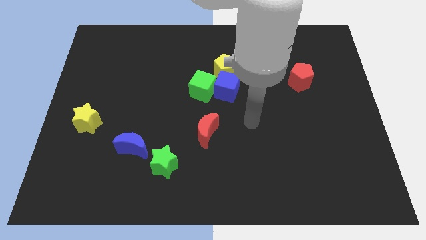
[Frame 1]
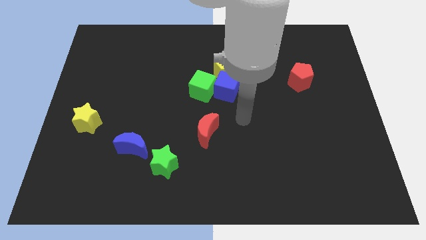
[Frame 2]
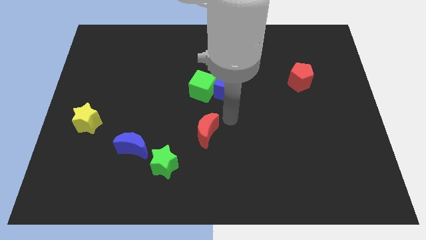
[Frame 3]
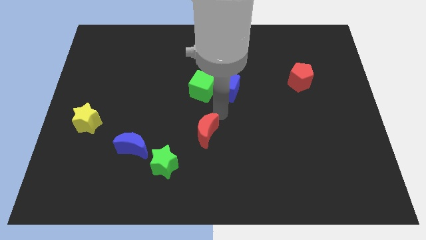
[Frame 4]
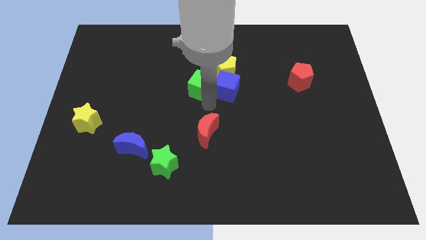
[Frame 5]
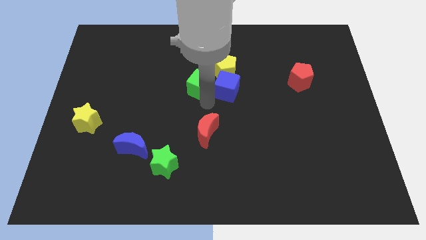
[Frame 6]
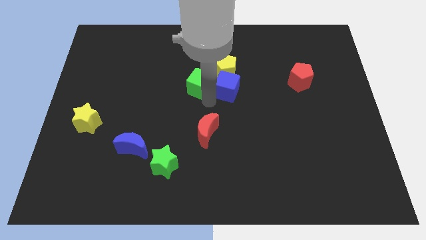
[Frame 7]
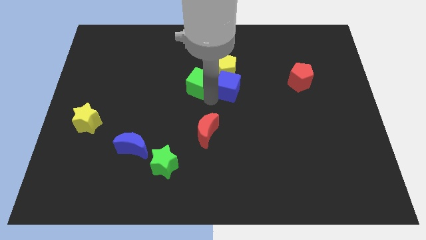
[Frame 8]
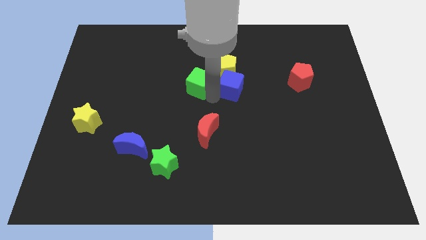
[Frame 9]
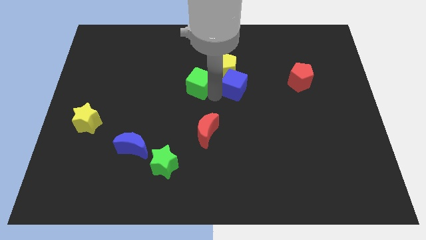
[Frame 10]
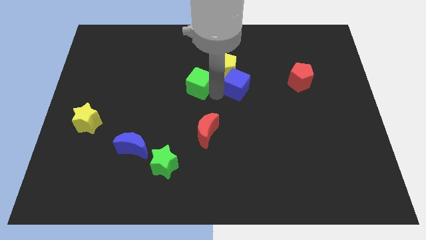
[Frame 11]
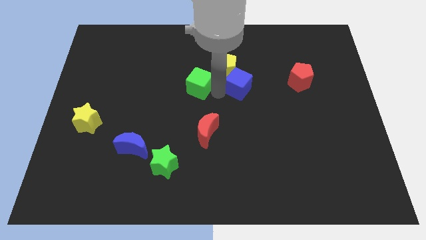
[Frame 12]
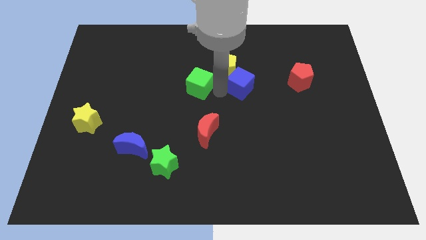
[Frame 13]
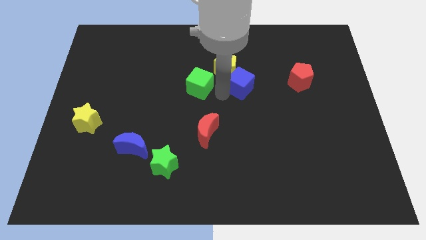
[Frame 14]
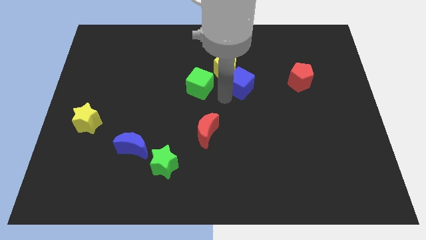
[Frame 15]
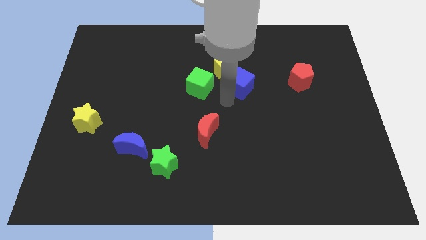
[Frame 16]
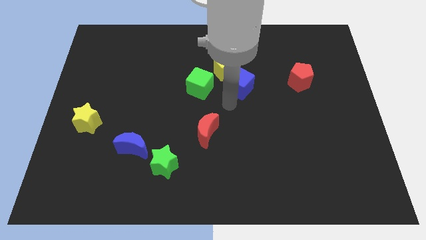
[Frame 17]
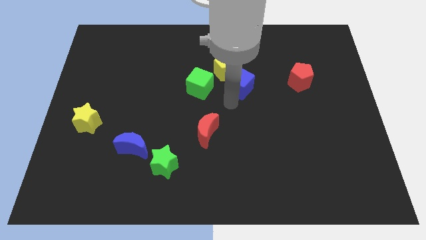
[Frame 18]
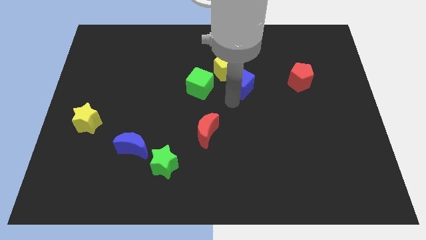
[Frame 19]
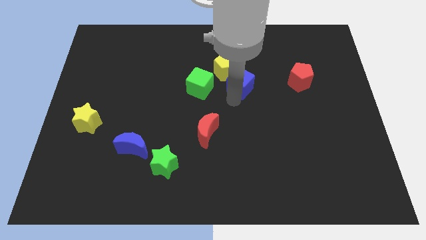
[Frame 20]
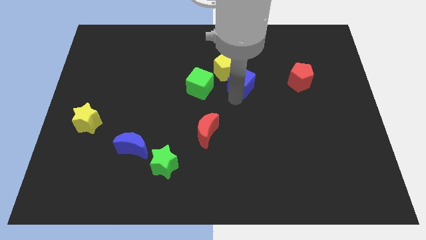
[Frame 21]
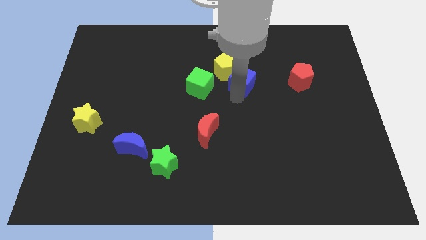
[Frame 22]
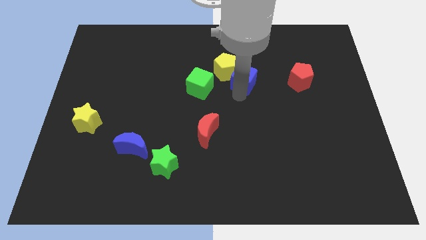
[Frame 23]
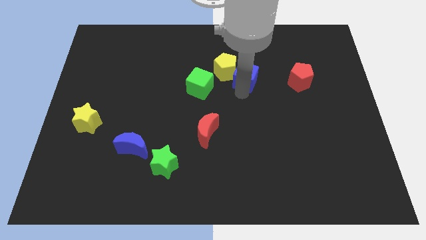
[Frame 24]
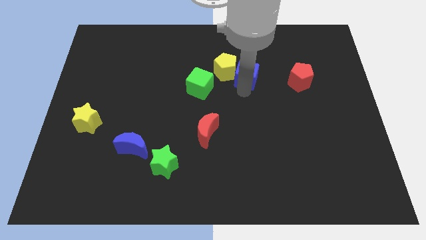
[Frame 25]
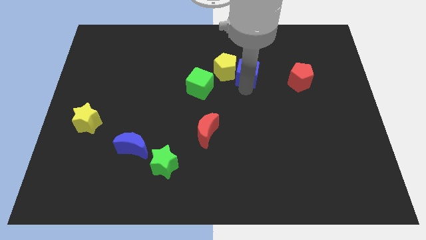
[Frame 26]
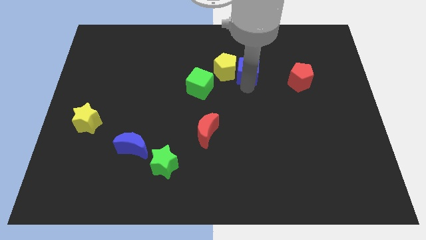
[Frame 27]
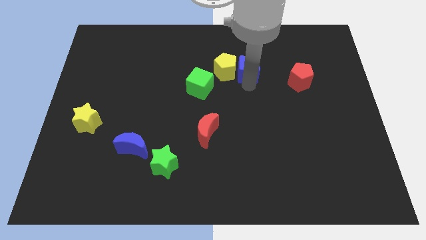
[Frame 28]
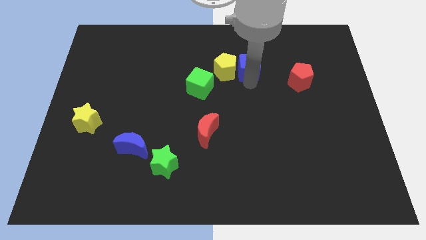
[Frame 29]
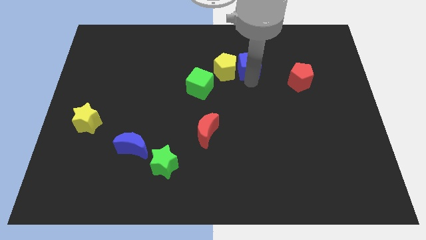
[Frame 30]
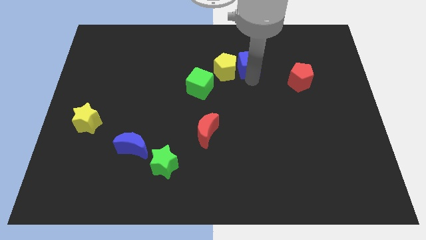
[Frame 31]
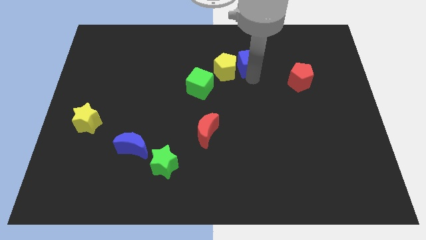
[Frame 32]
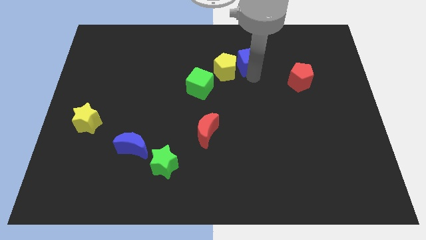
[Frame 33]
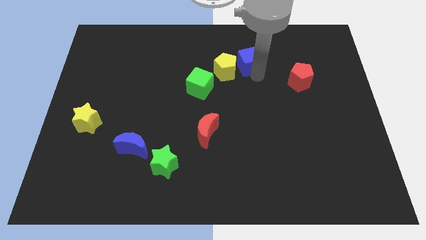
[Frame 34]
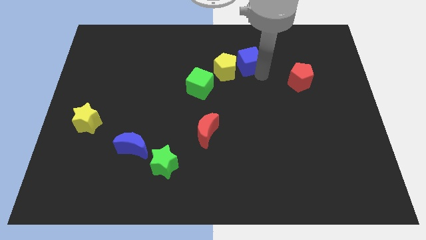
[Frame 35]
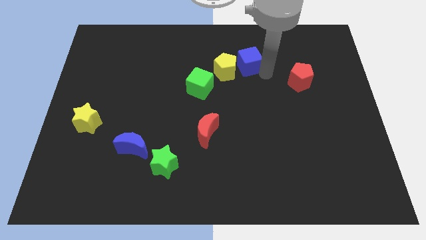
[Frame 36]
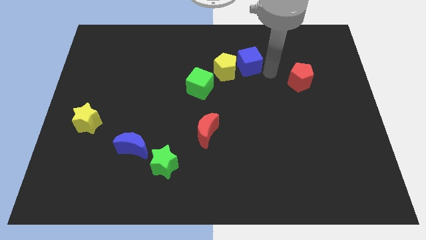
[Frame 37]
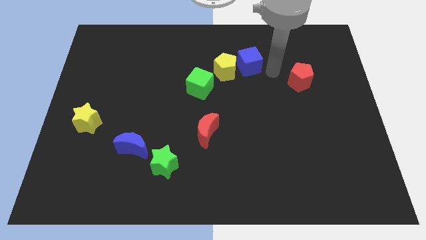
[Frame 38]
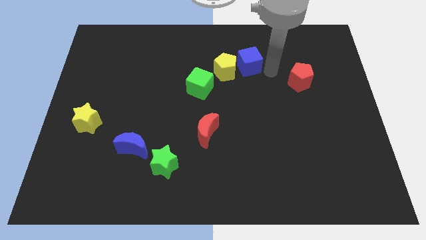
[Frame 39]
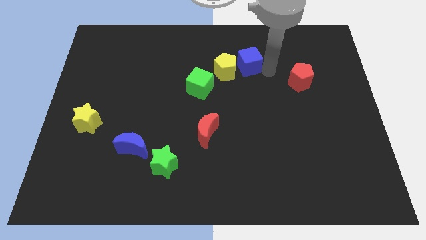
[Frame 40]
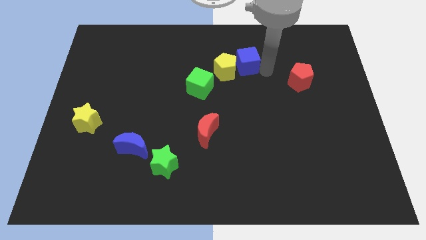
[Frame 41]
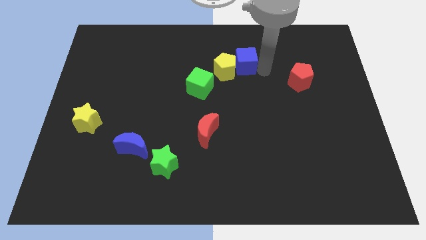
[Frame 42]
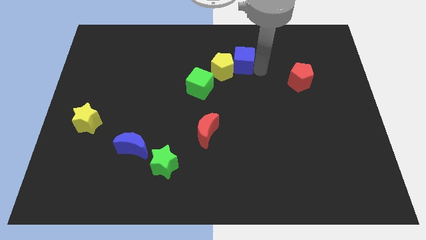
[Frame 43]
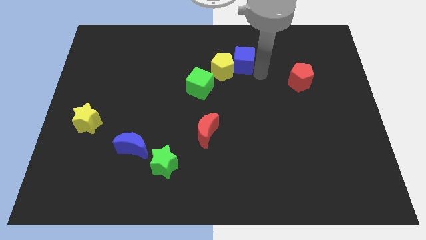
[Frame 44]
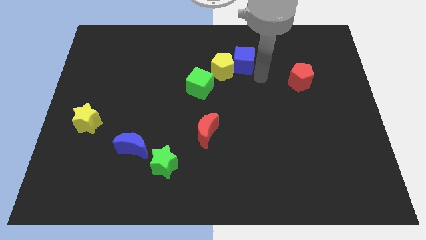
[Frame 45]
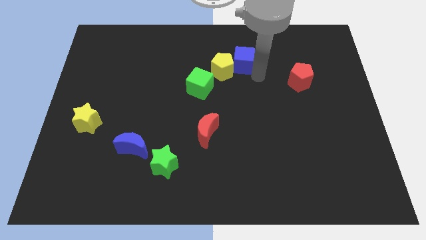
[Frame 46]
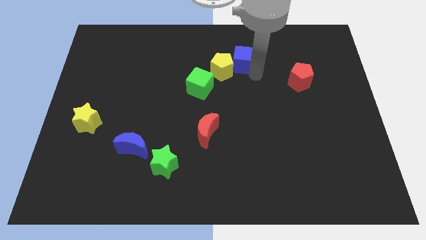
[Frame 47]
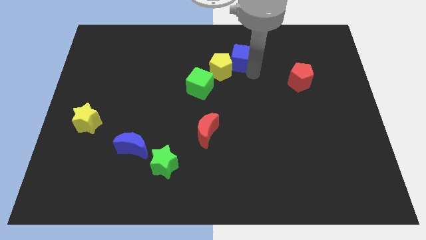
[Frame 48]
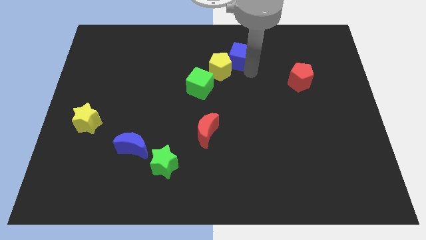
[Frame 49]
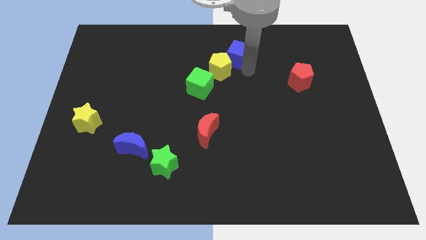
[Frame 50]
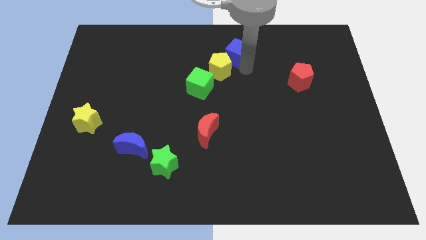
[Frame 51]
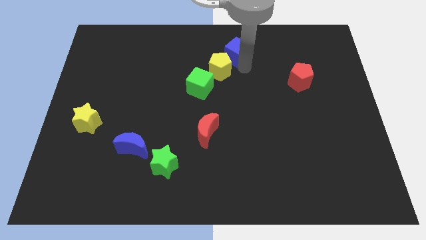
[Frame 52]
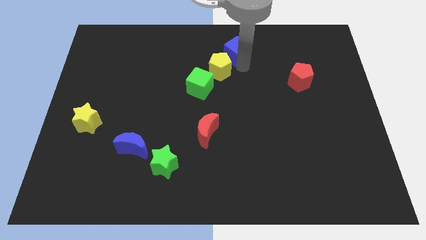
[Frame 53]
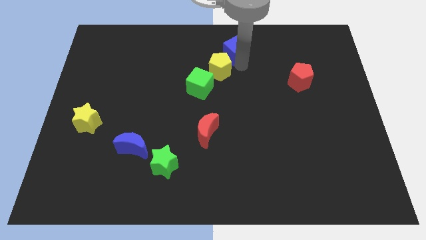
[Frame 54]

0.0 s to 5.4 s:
put the blue cube to the top

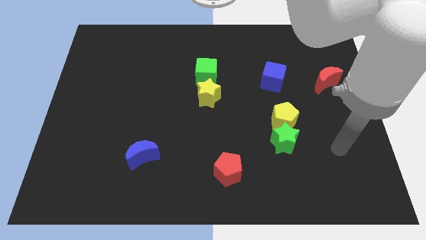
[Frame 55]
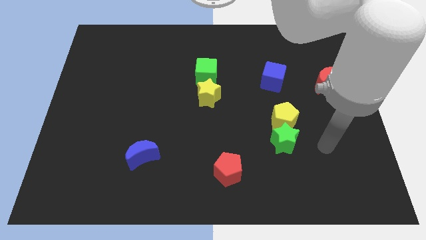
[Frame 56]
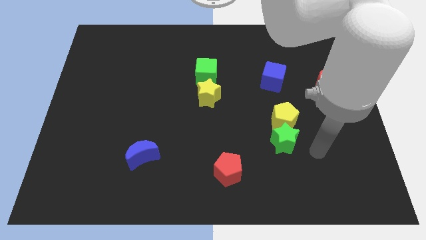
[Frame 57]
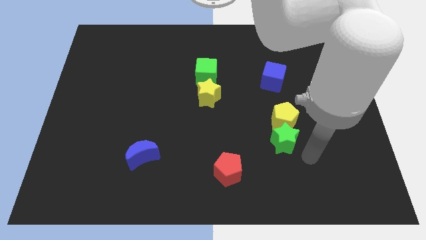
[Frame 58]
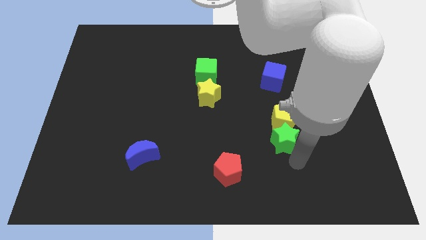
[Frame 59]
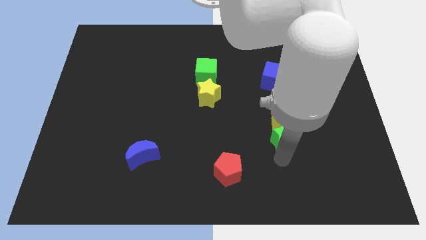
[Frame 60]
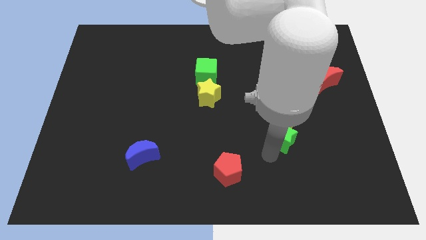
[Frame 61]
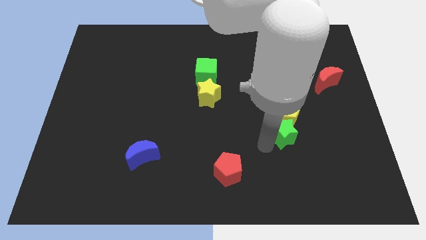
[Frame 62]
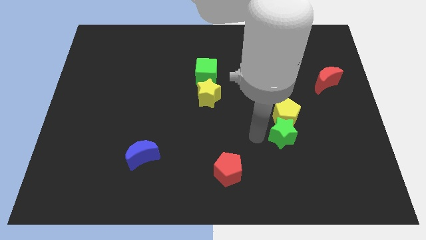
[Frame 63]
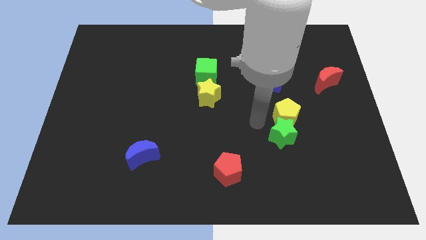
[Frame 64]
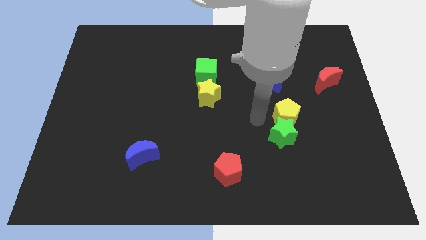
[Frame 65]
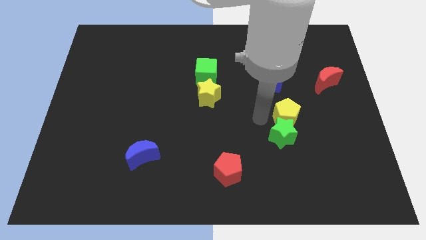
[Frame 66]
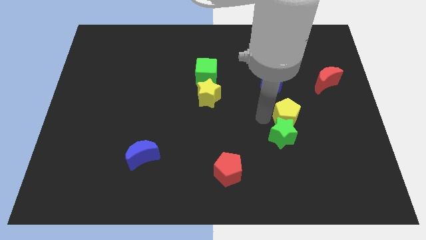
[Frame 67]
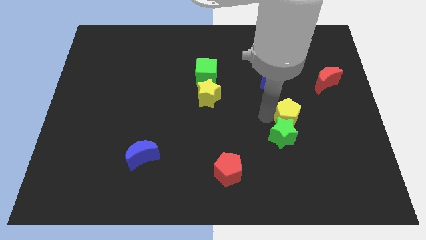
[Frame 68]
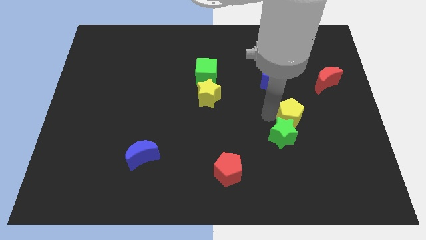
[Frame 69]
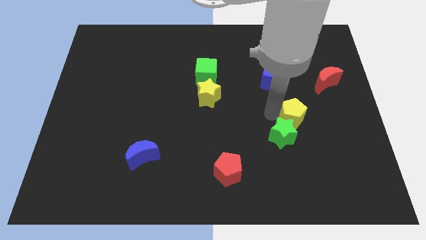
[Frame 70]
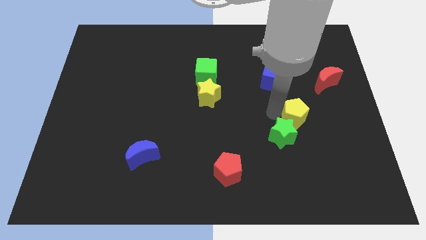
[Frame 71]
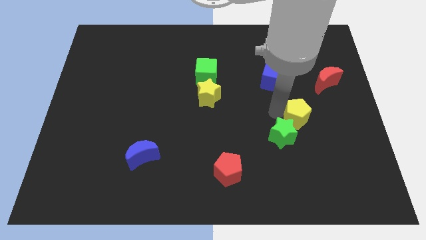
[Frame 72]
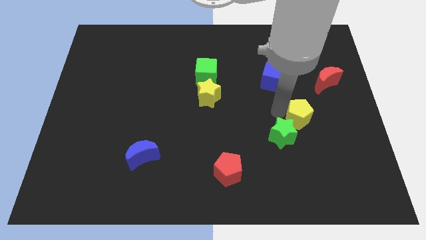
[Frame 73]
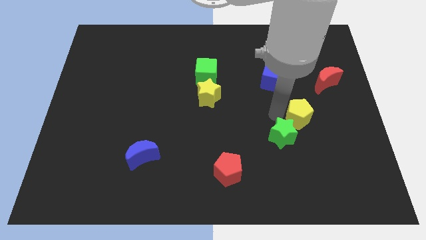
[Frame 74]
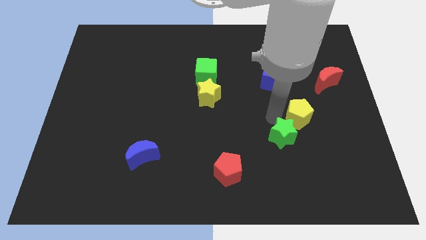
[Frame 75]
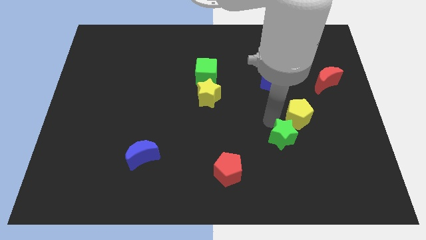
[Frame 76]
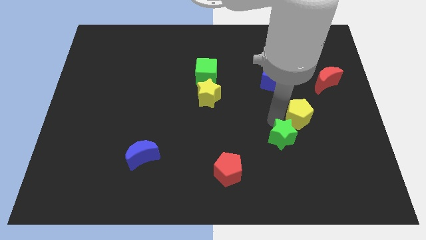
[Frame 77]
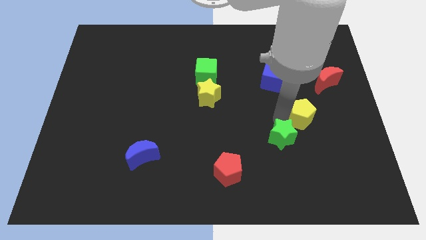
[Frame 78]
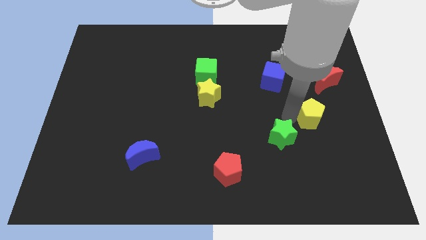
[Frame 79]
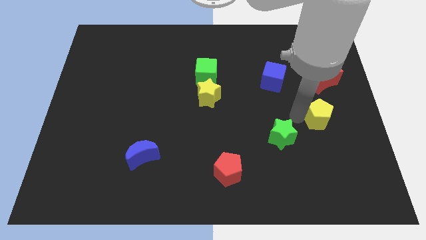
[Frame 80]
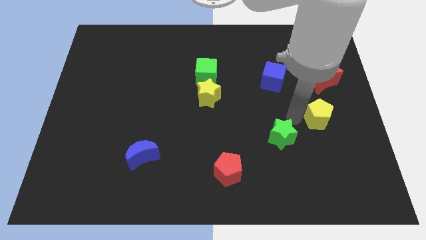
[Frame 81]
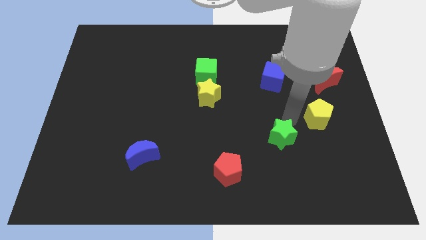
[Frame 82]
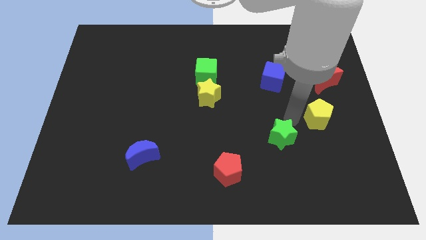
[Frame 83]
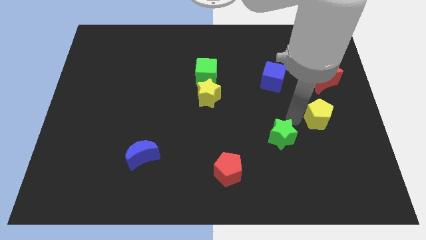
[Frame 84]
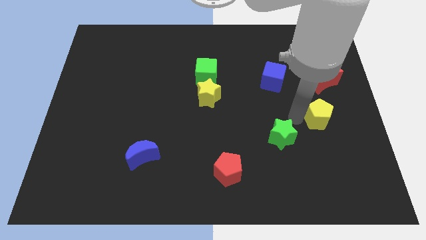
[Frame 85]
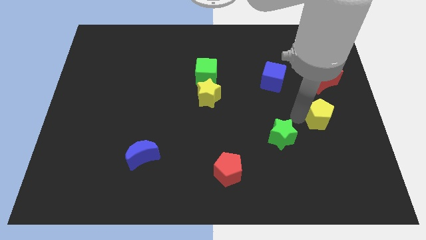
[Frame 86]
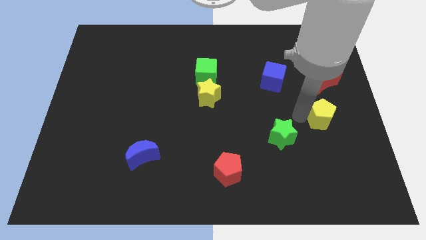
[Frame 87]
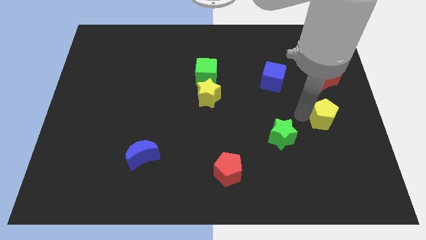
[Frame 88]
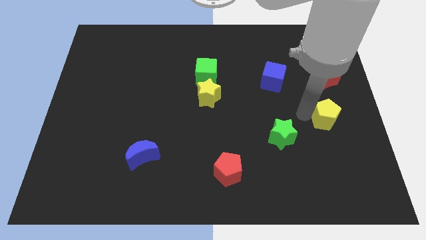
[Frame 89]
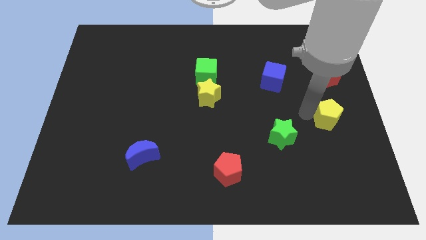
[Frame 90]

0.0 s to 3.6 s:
put the yellow pentagon to the right side
